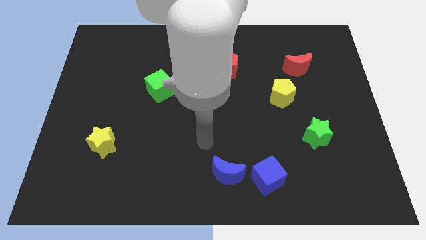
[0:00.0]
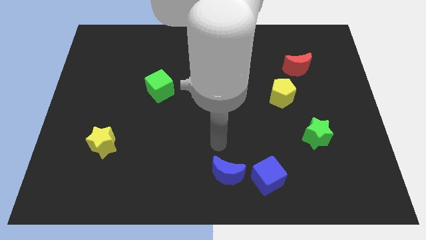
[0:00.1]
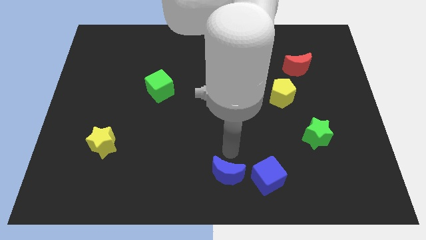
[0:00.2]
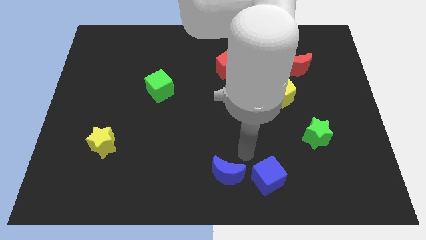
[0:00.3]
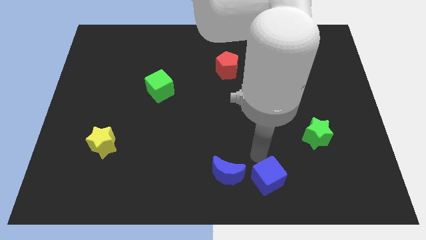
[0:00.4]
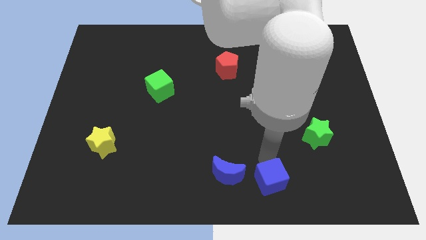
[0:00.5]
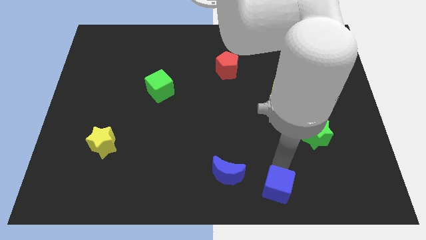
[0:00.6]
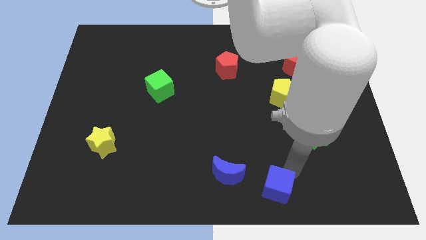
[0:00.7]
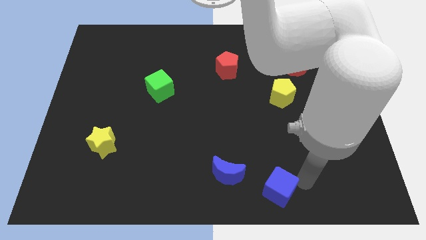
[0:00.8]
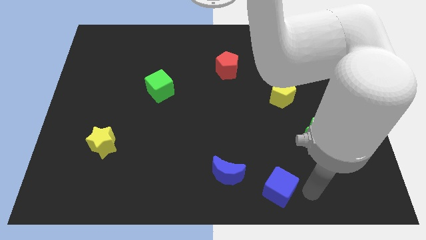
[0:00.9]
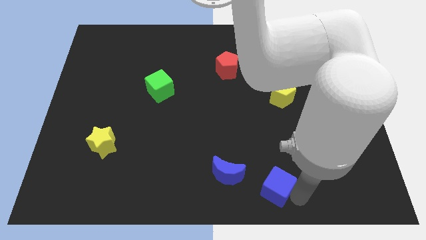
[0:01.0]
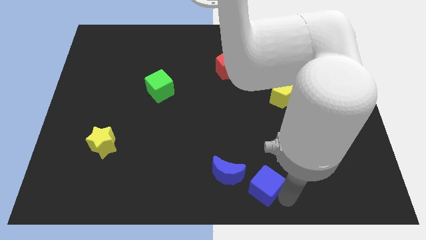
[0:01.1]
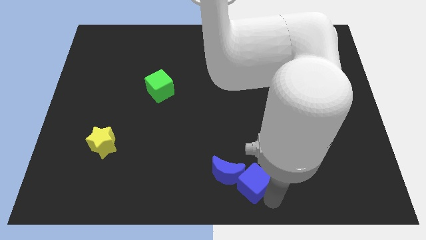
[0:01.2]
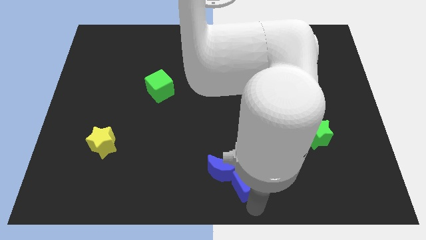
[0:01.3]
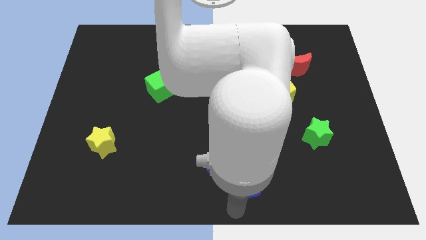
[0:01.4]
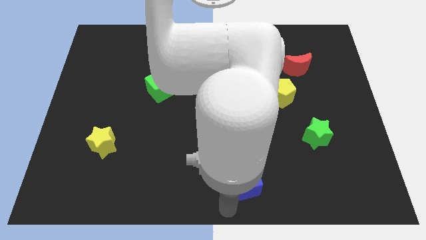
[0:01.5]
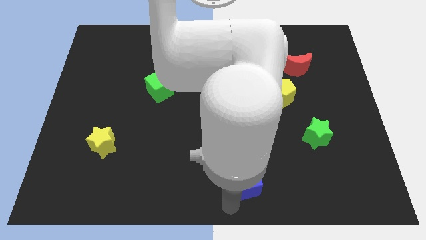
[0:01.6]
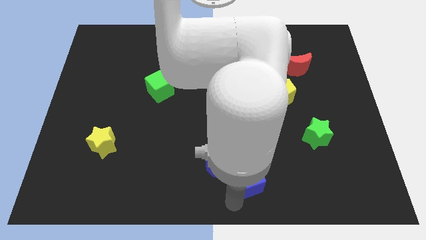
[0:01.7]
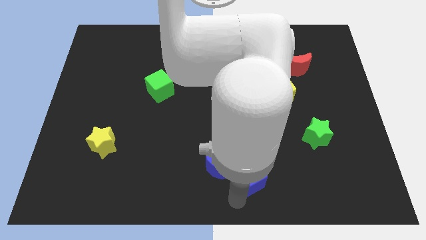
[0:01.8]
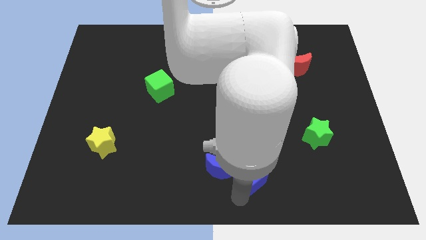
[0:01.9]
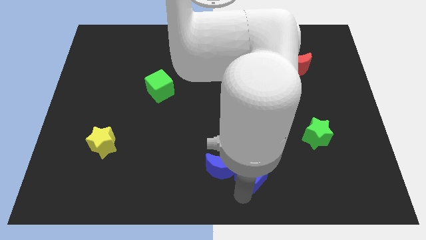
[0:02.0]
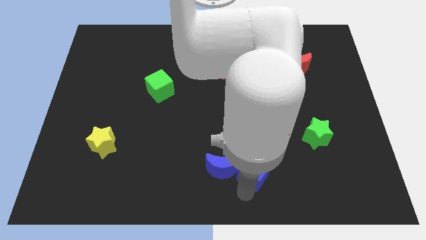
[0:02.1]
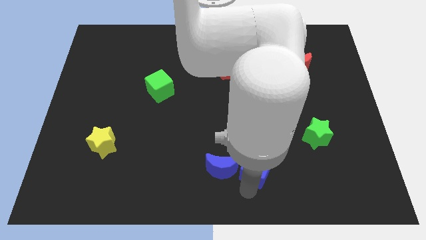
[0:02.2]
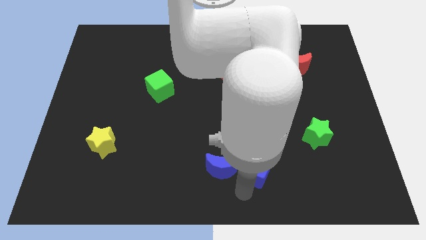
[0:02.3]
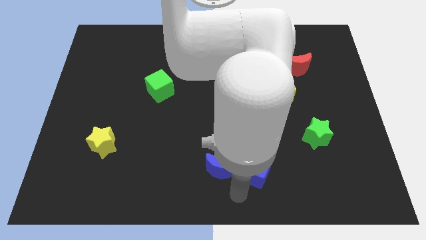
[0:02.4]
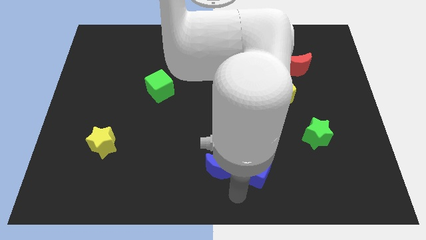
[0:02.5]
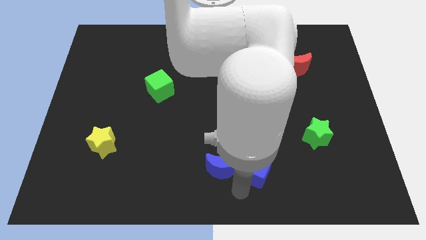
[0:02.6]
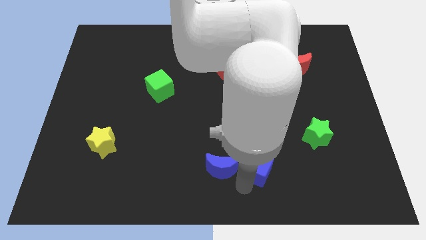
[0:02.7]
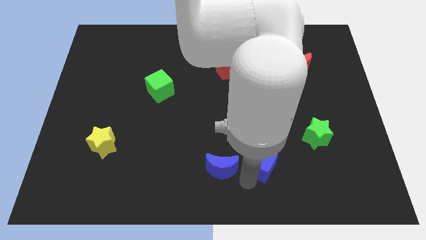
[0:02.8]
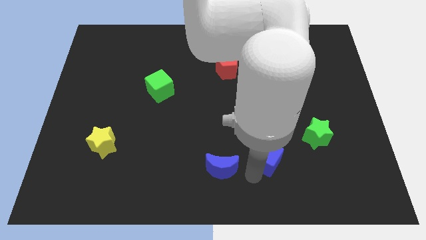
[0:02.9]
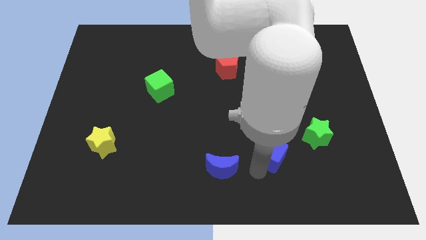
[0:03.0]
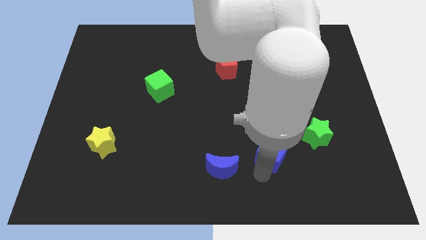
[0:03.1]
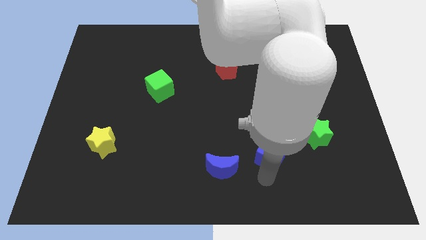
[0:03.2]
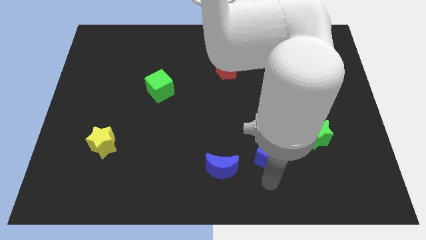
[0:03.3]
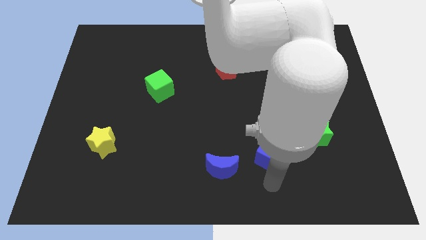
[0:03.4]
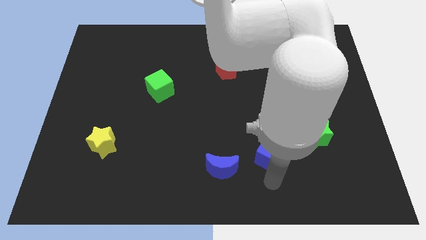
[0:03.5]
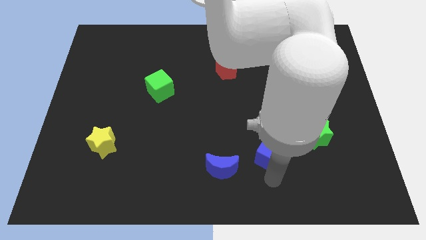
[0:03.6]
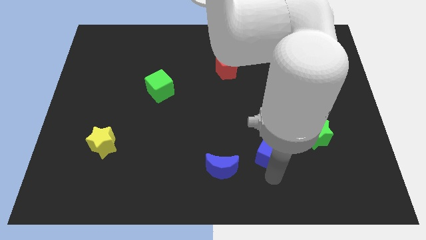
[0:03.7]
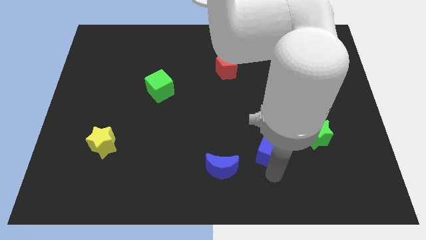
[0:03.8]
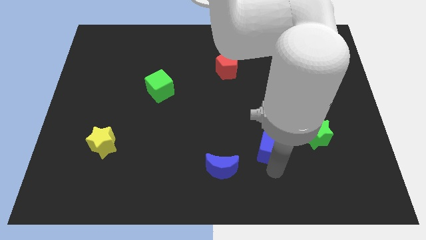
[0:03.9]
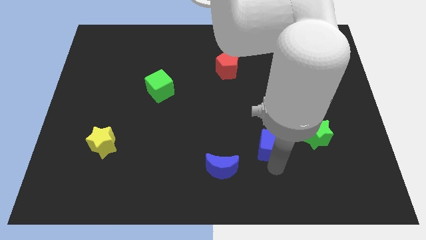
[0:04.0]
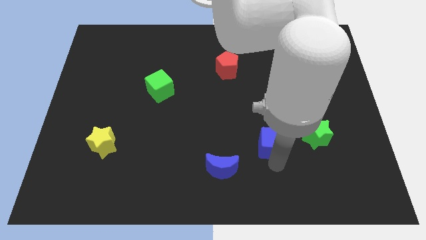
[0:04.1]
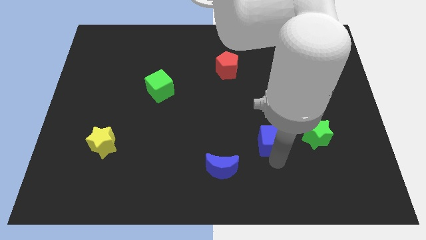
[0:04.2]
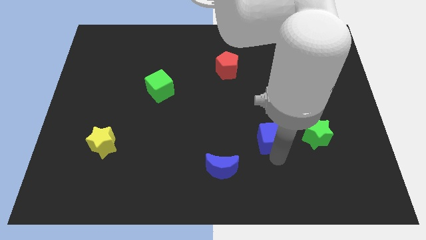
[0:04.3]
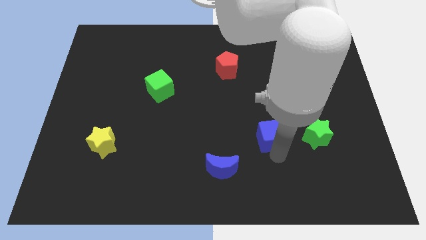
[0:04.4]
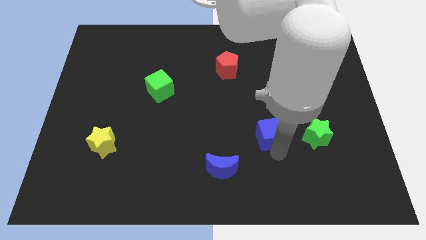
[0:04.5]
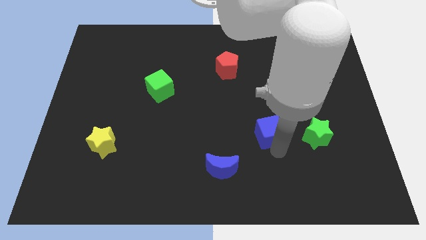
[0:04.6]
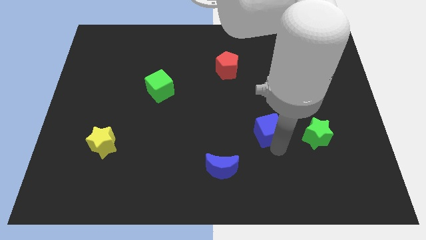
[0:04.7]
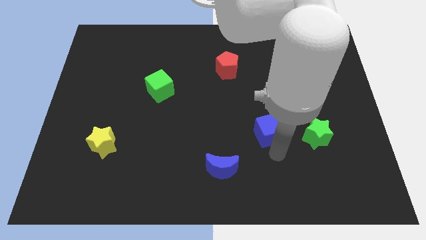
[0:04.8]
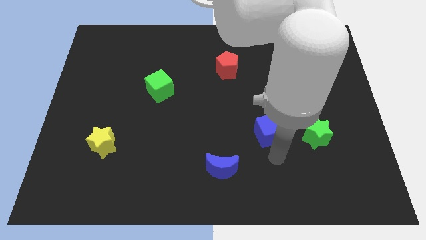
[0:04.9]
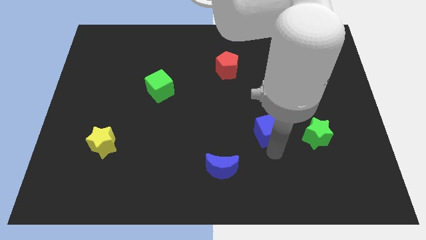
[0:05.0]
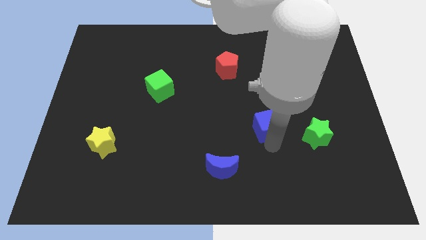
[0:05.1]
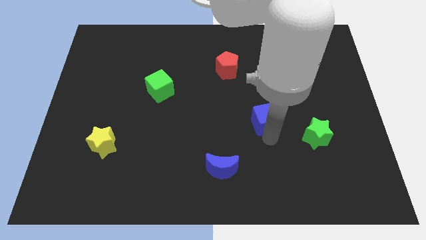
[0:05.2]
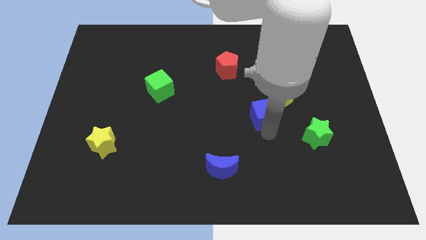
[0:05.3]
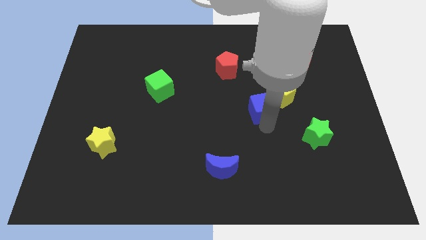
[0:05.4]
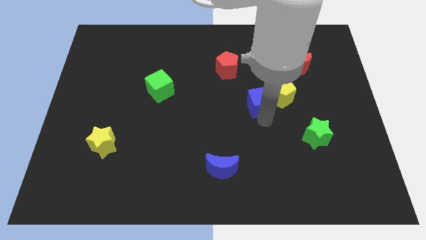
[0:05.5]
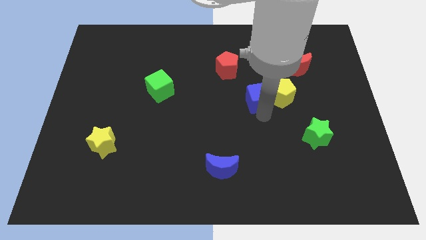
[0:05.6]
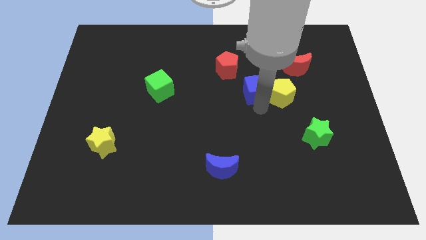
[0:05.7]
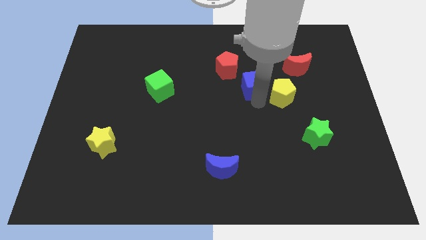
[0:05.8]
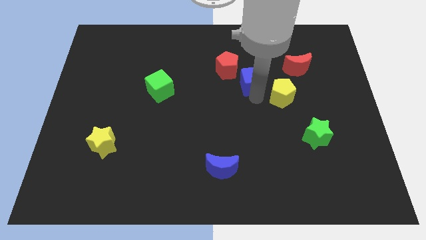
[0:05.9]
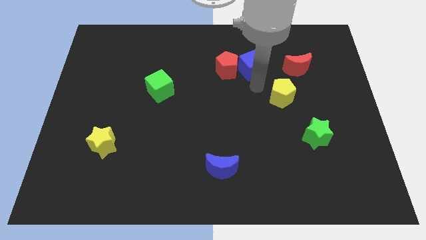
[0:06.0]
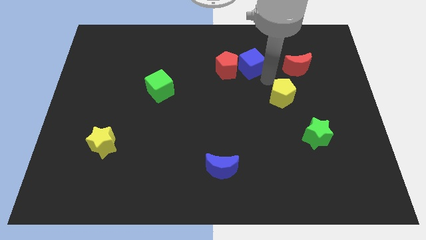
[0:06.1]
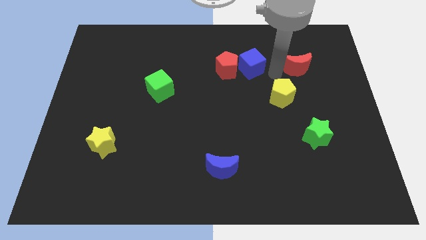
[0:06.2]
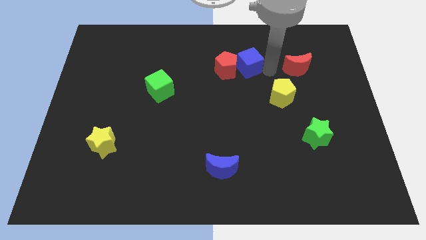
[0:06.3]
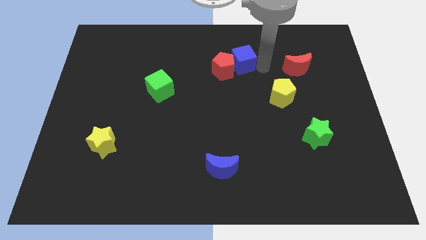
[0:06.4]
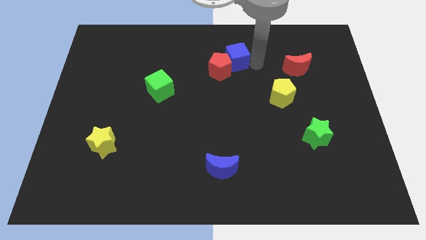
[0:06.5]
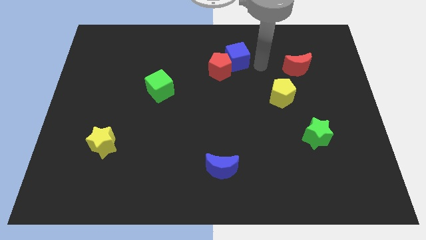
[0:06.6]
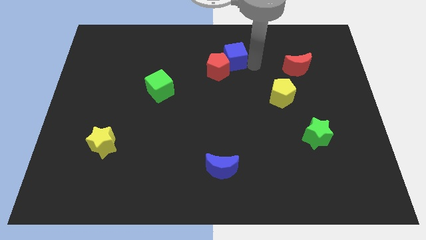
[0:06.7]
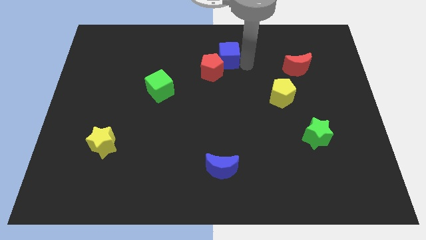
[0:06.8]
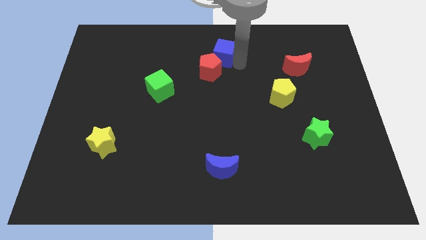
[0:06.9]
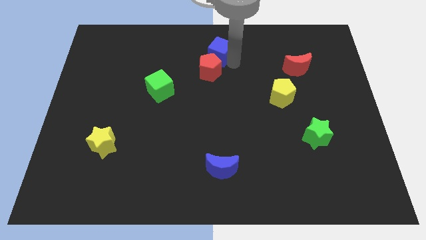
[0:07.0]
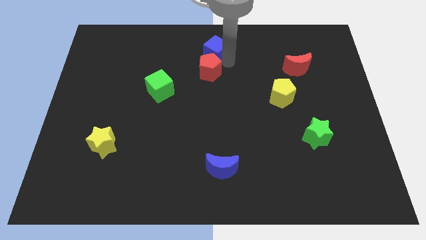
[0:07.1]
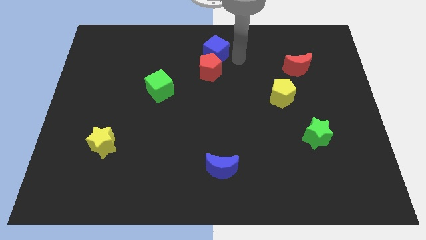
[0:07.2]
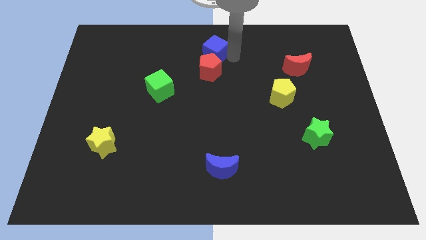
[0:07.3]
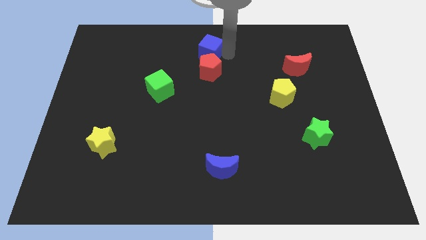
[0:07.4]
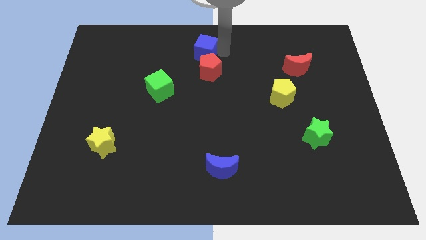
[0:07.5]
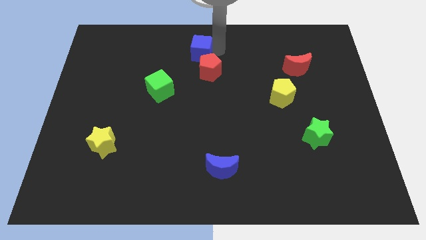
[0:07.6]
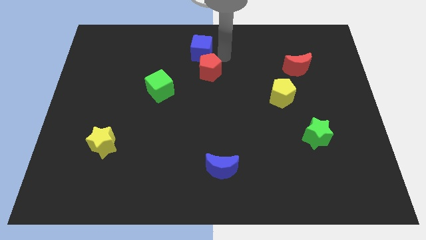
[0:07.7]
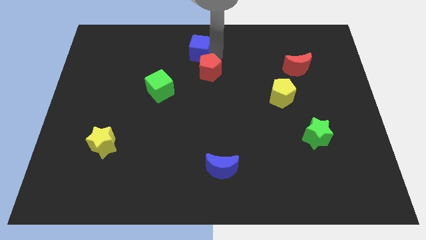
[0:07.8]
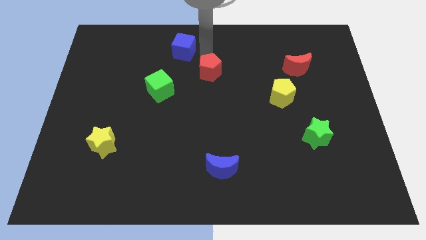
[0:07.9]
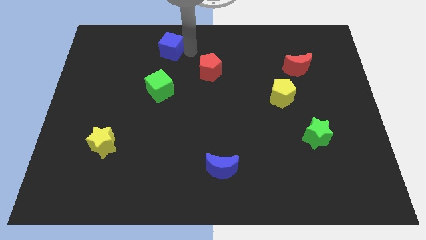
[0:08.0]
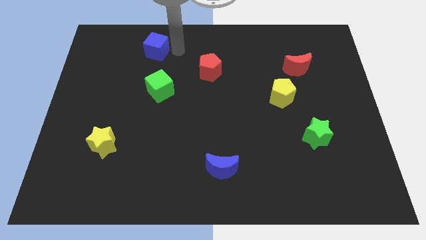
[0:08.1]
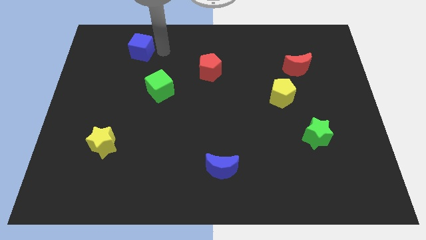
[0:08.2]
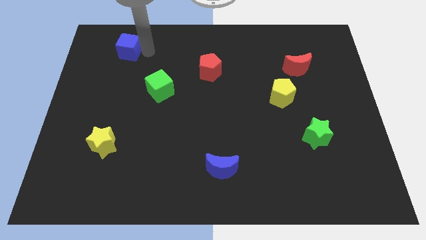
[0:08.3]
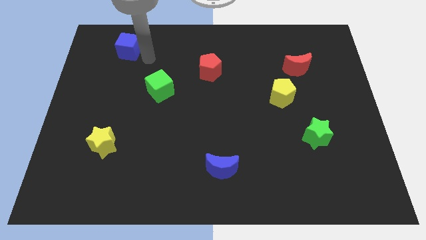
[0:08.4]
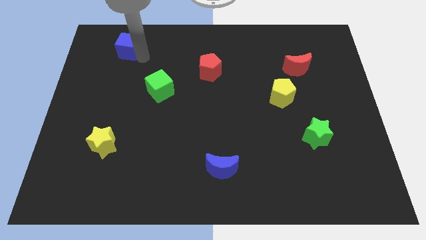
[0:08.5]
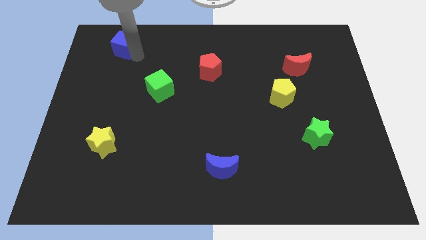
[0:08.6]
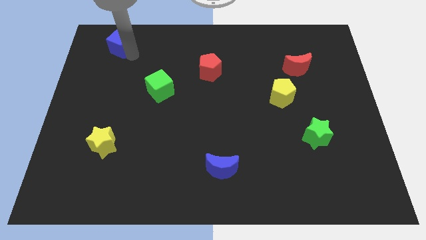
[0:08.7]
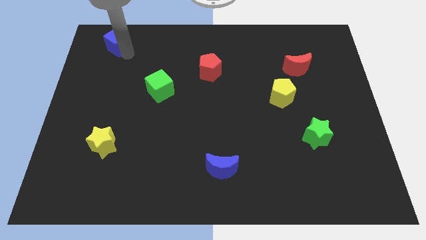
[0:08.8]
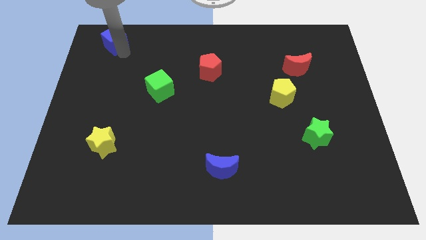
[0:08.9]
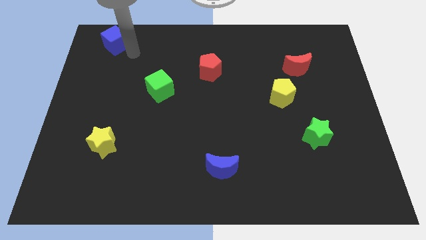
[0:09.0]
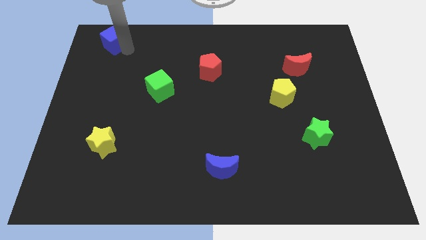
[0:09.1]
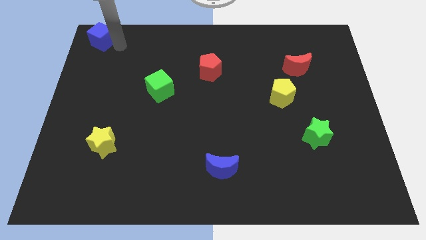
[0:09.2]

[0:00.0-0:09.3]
slide the blue cube to the top left of the board
